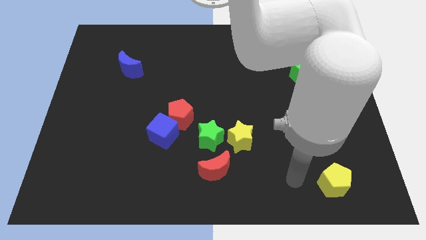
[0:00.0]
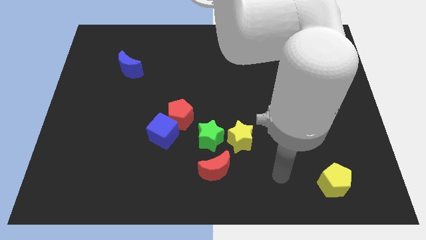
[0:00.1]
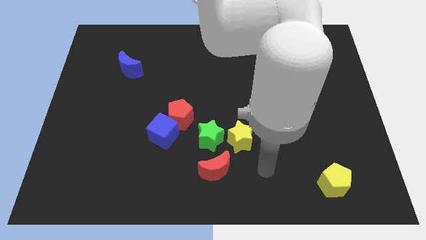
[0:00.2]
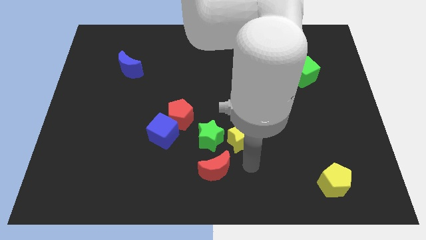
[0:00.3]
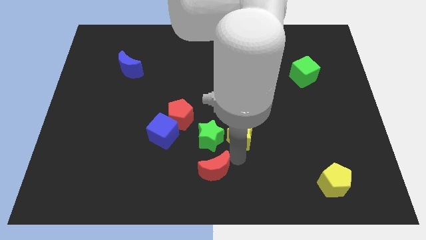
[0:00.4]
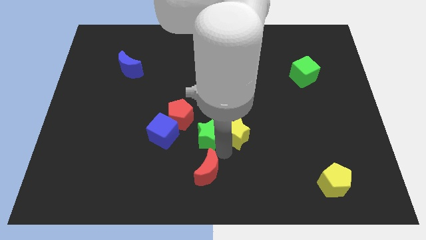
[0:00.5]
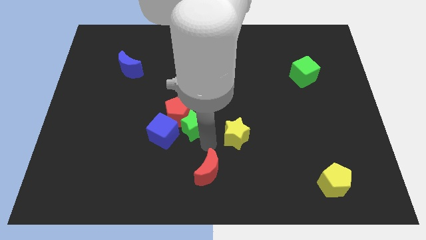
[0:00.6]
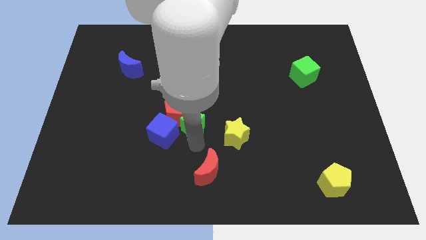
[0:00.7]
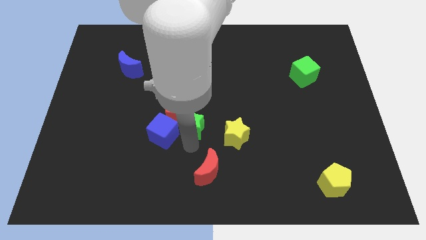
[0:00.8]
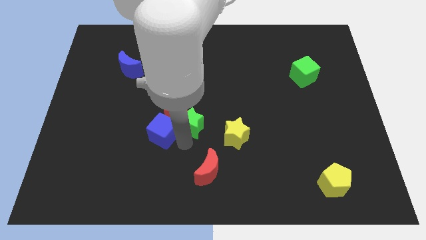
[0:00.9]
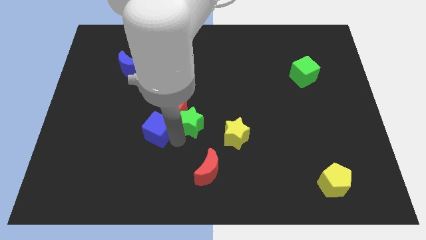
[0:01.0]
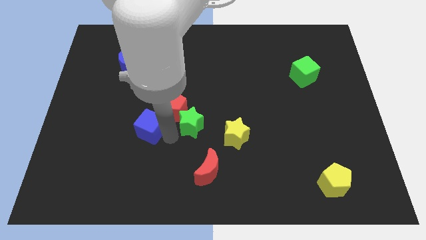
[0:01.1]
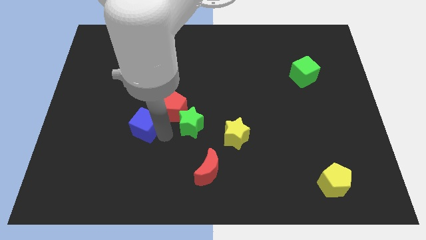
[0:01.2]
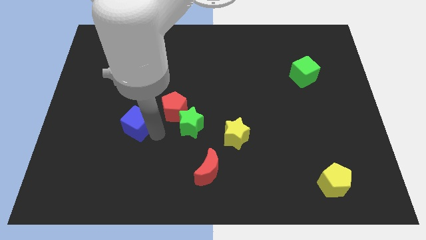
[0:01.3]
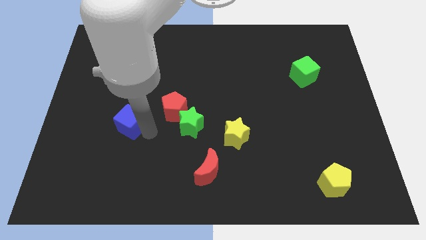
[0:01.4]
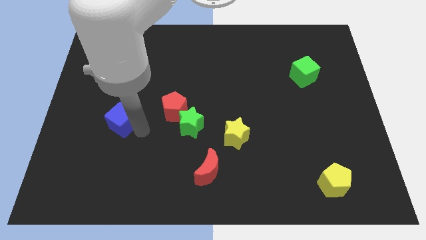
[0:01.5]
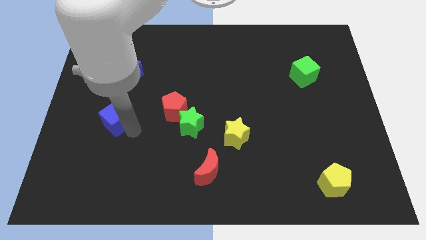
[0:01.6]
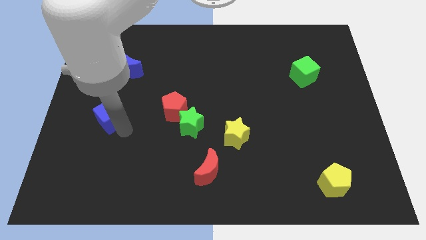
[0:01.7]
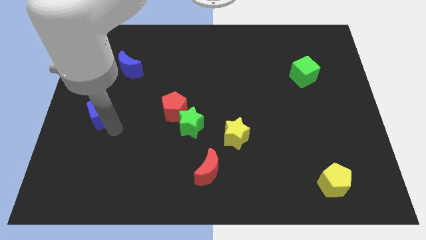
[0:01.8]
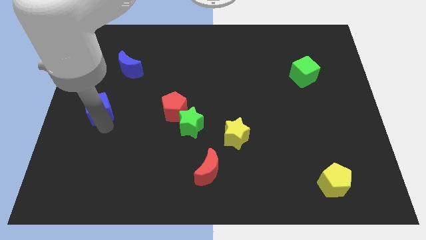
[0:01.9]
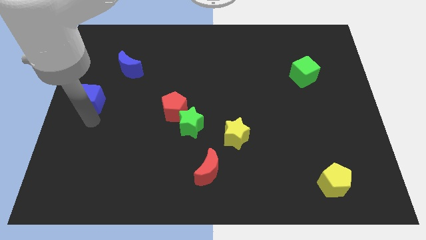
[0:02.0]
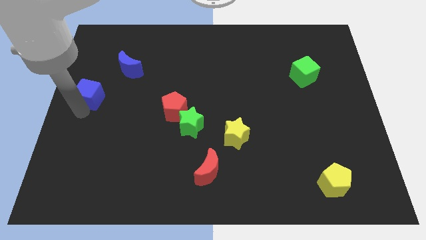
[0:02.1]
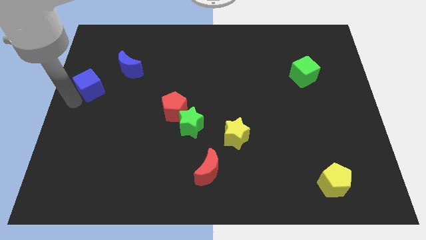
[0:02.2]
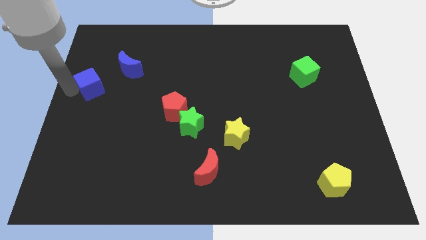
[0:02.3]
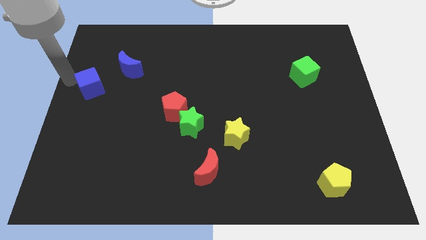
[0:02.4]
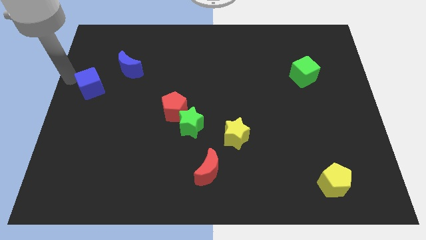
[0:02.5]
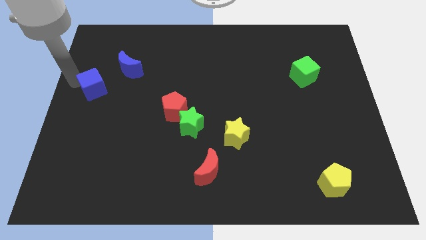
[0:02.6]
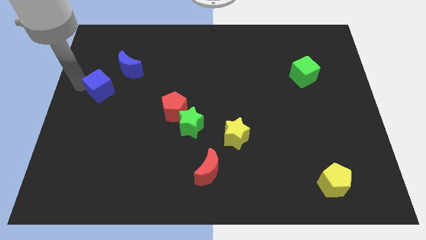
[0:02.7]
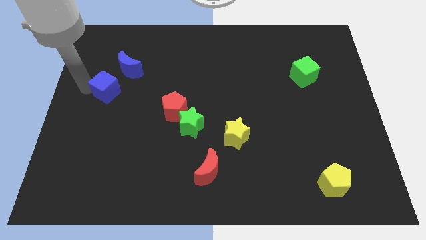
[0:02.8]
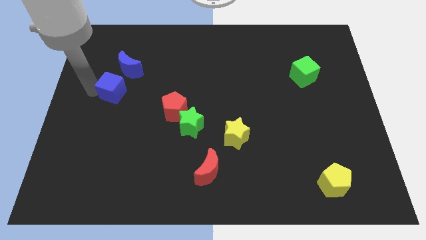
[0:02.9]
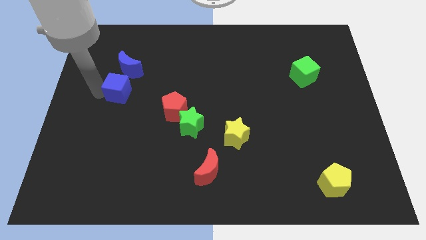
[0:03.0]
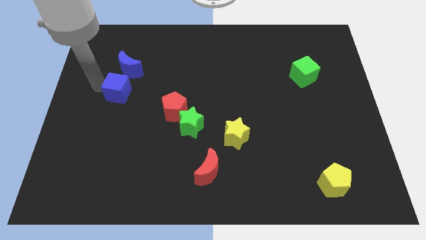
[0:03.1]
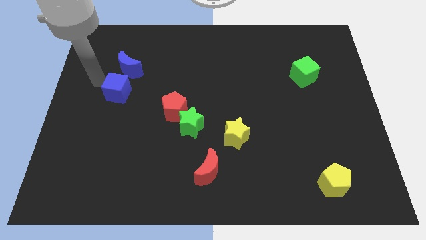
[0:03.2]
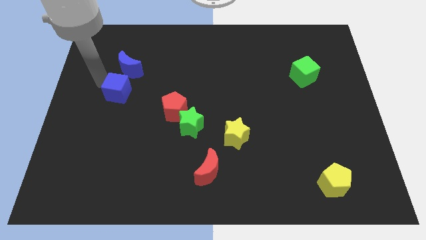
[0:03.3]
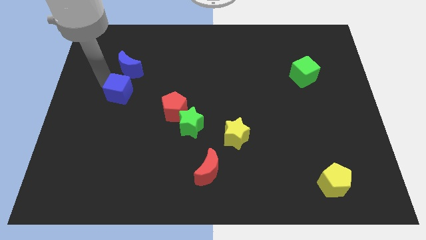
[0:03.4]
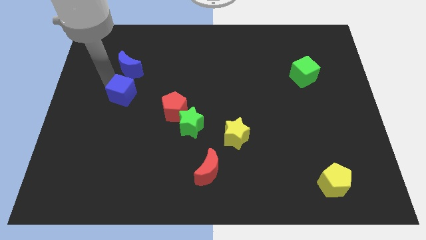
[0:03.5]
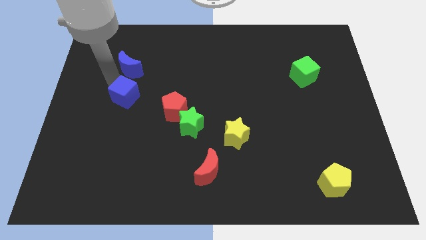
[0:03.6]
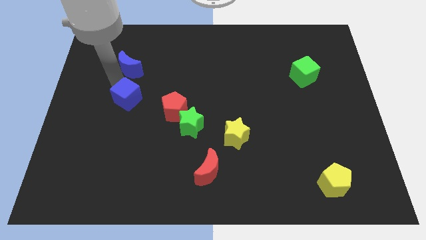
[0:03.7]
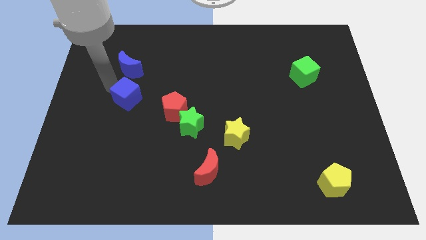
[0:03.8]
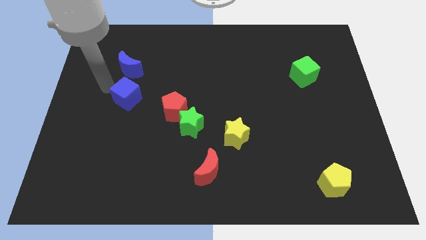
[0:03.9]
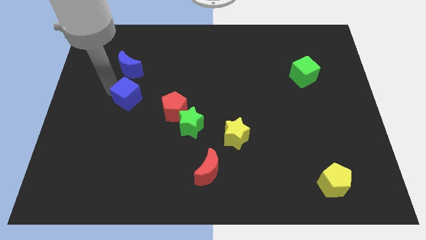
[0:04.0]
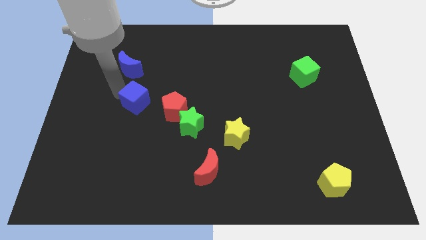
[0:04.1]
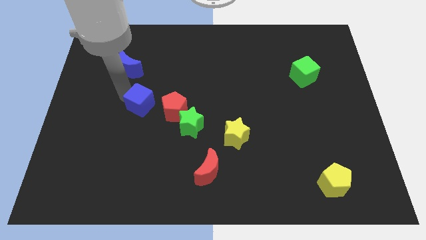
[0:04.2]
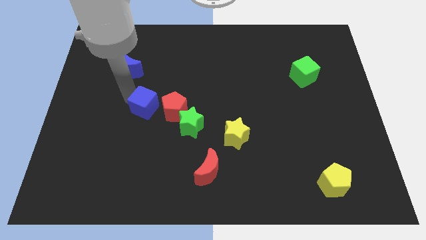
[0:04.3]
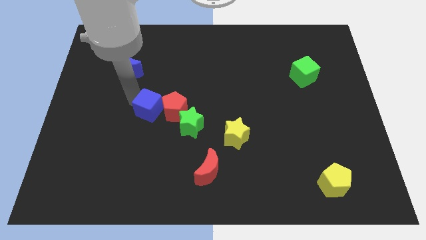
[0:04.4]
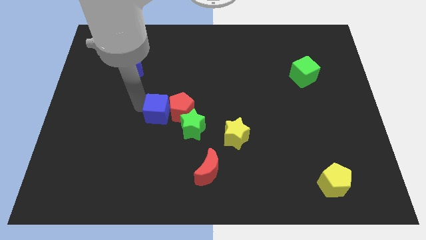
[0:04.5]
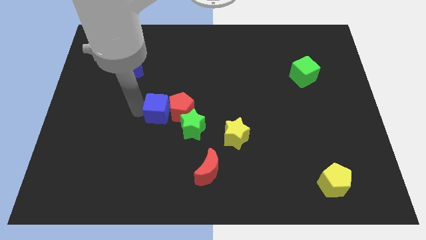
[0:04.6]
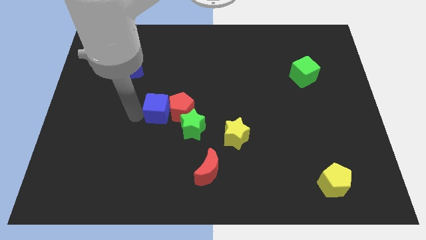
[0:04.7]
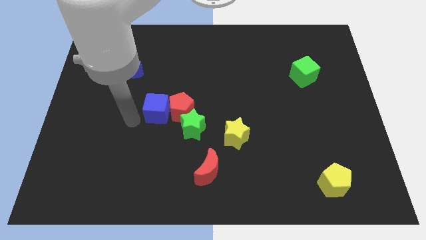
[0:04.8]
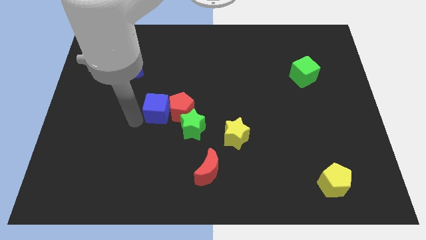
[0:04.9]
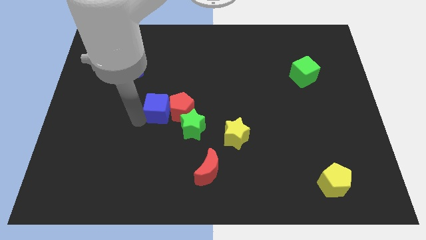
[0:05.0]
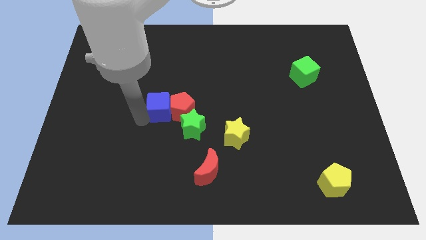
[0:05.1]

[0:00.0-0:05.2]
put the blue cube to the middle of the board

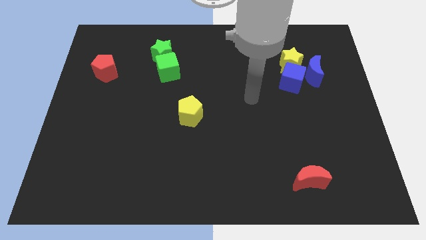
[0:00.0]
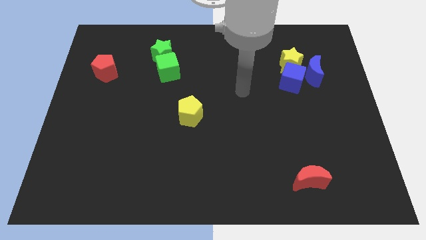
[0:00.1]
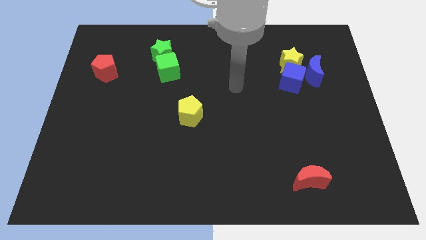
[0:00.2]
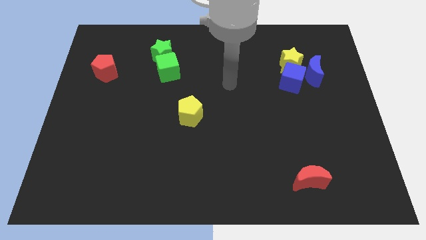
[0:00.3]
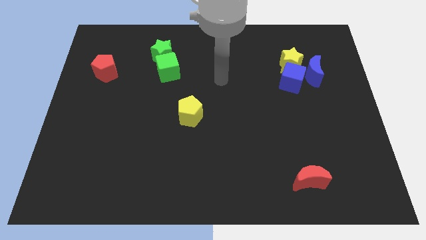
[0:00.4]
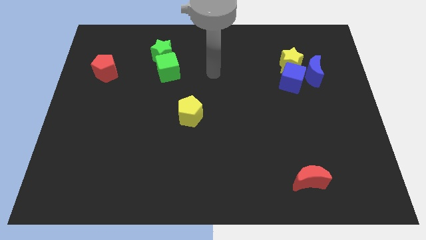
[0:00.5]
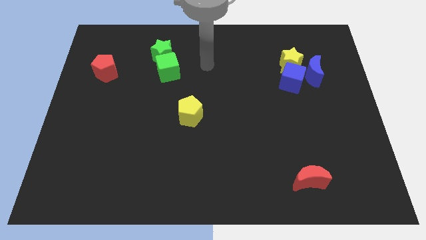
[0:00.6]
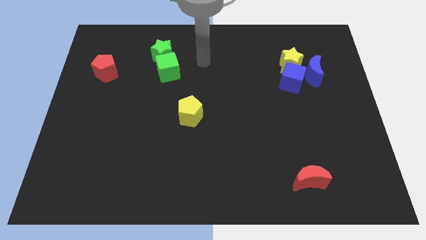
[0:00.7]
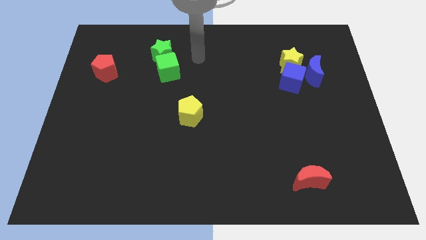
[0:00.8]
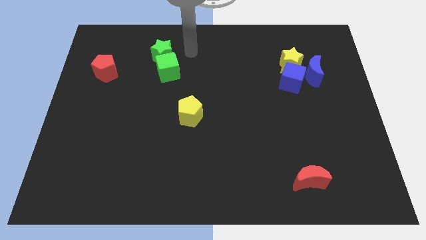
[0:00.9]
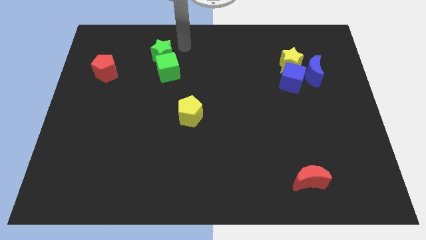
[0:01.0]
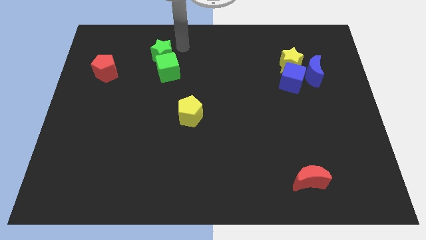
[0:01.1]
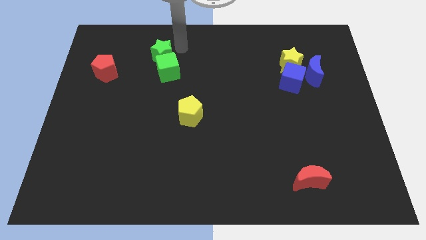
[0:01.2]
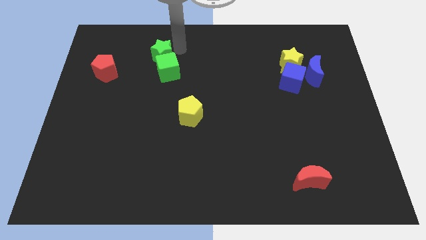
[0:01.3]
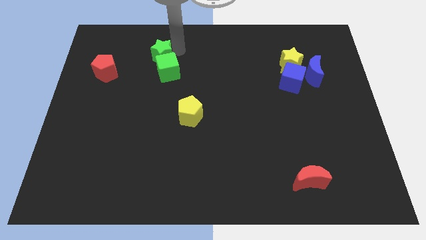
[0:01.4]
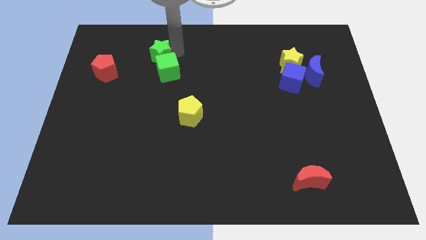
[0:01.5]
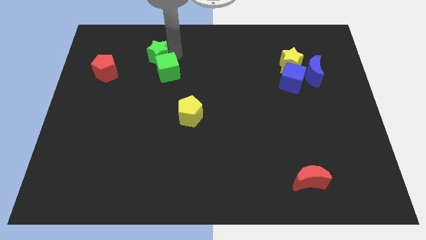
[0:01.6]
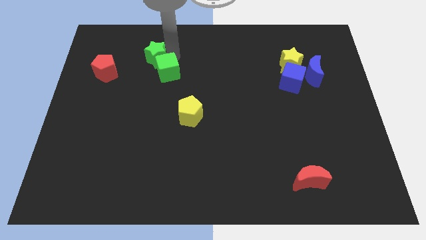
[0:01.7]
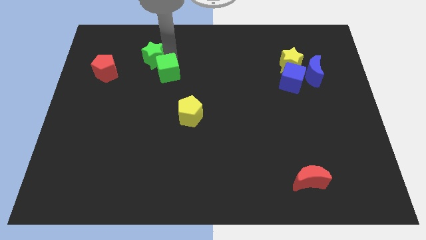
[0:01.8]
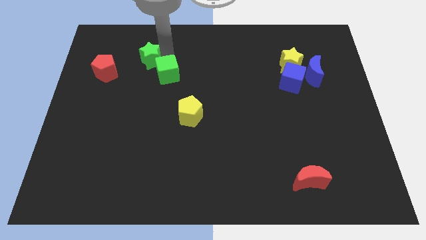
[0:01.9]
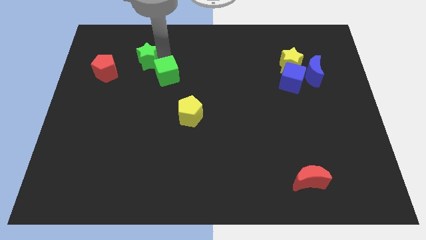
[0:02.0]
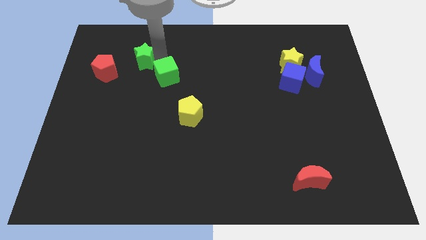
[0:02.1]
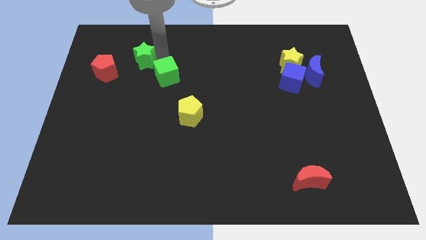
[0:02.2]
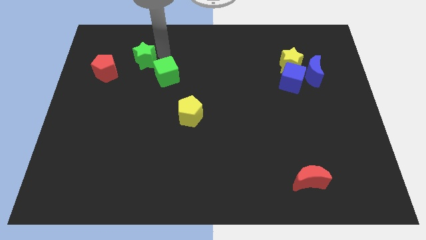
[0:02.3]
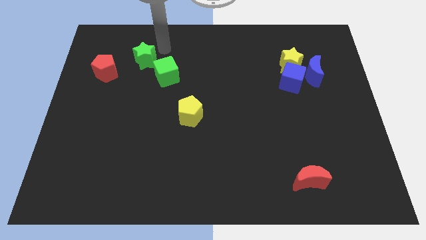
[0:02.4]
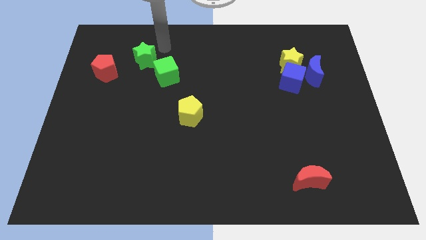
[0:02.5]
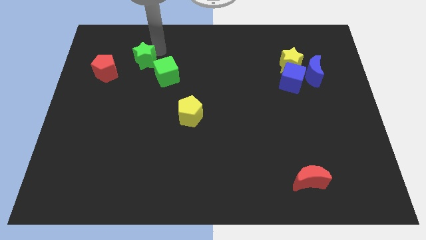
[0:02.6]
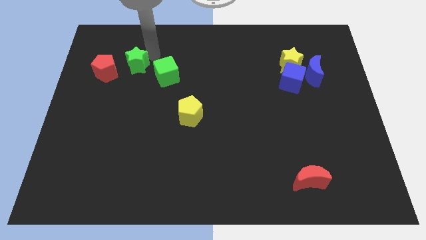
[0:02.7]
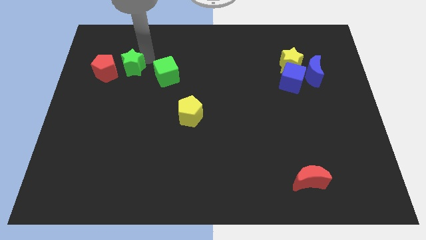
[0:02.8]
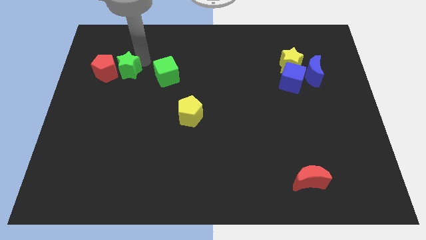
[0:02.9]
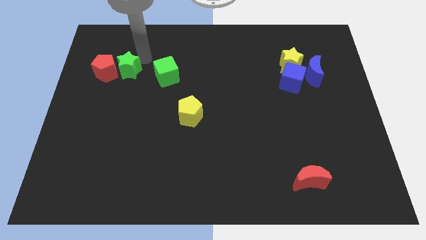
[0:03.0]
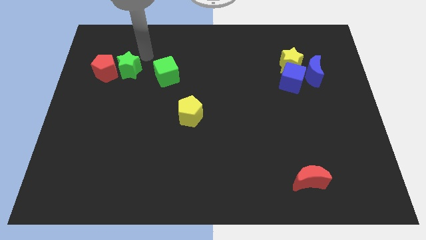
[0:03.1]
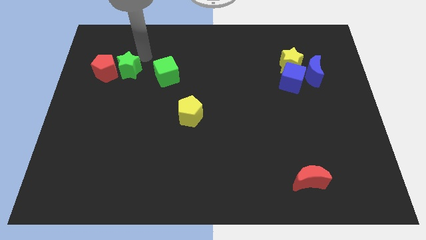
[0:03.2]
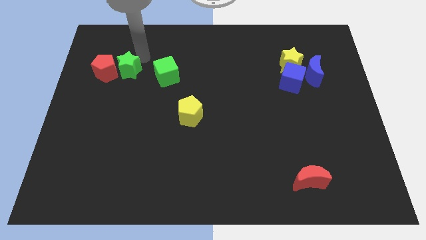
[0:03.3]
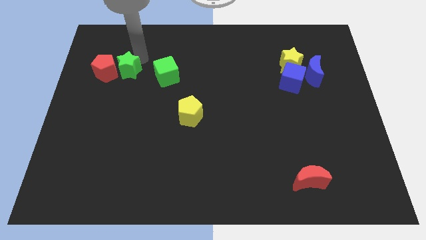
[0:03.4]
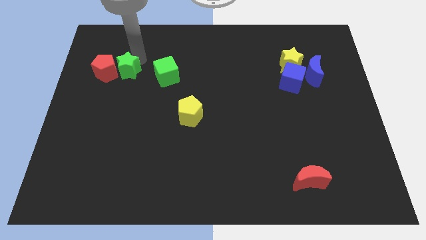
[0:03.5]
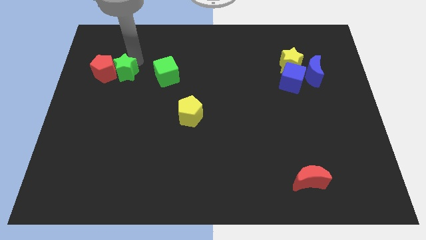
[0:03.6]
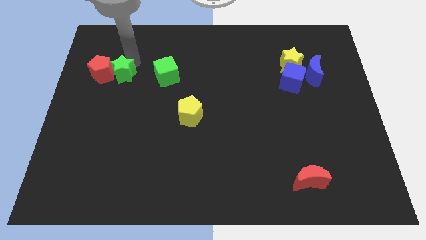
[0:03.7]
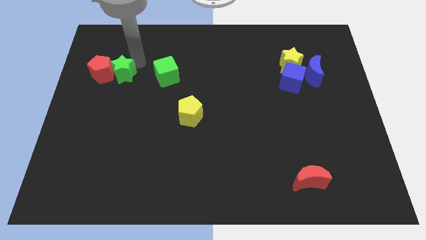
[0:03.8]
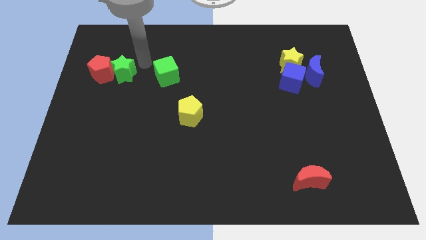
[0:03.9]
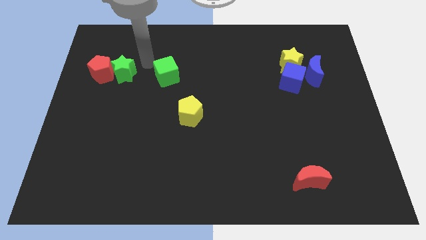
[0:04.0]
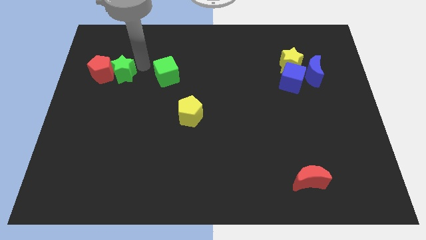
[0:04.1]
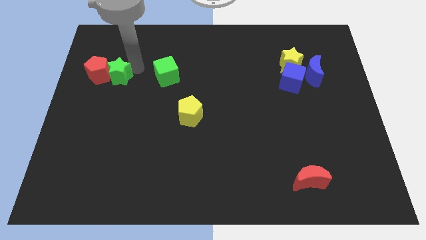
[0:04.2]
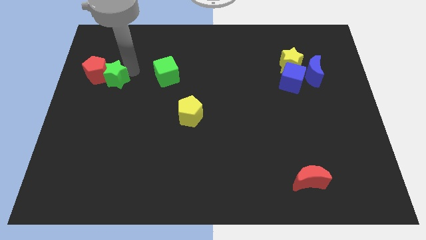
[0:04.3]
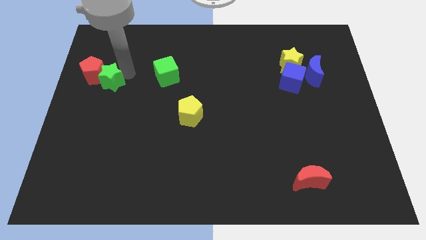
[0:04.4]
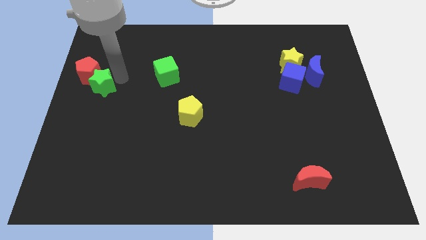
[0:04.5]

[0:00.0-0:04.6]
move the green star to the left side
